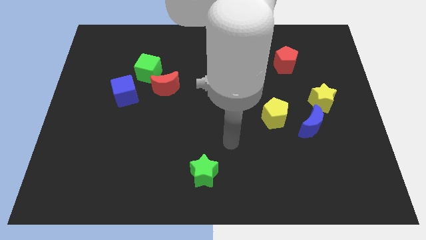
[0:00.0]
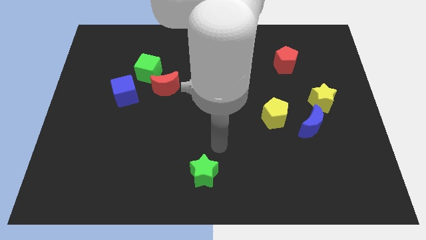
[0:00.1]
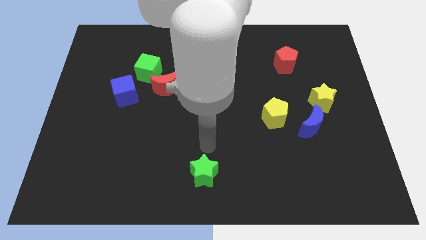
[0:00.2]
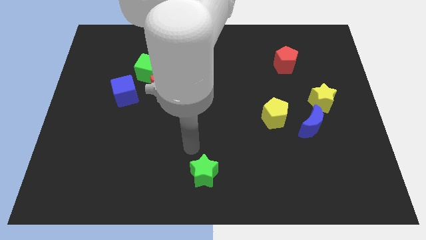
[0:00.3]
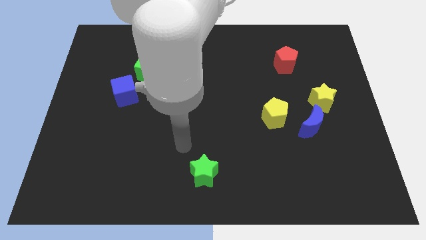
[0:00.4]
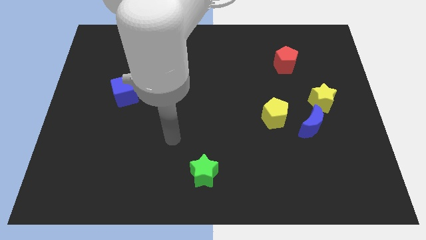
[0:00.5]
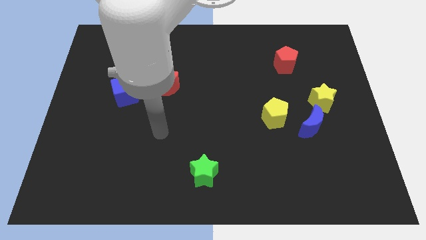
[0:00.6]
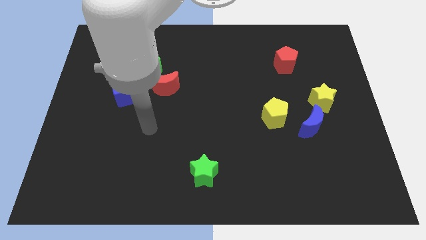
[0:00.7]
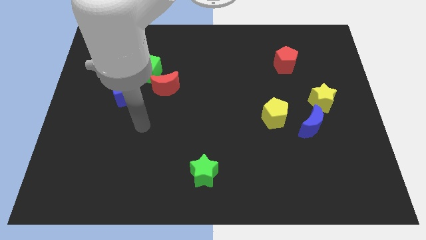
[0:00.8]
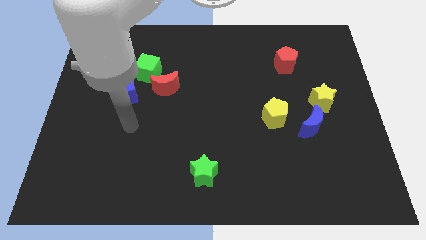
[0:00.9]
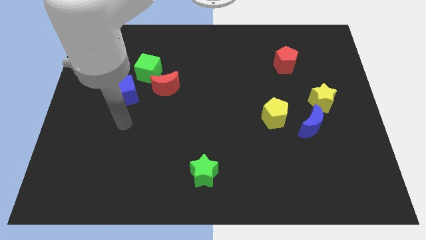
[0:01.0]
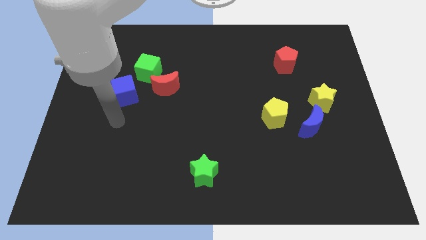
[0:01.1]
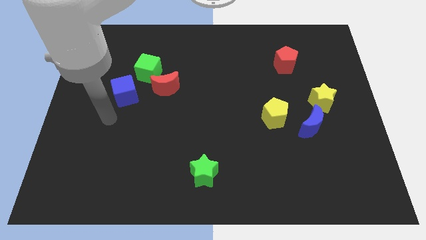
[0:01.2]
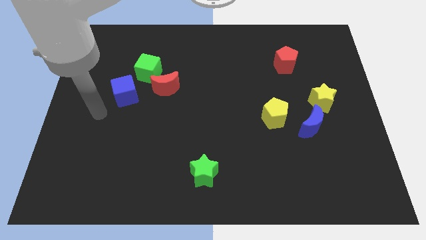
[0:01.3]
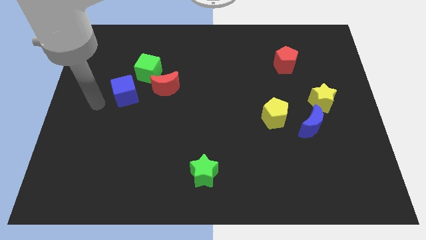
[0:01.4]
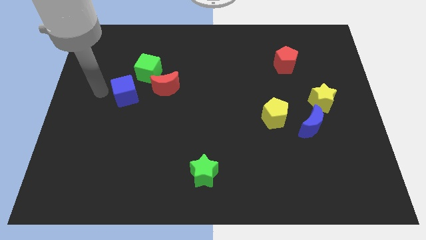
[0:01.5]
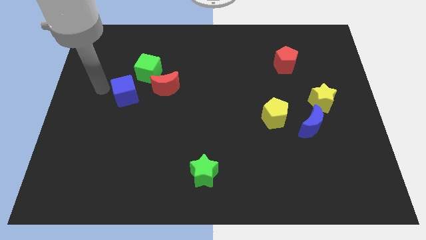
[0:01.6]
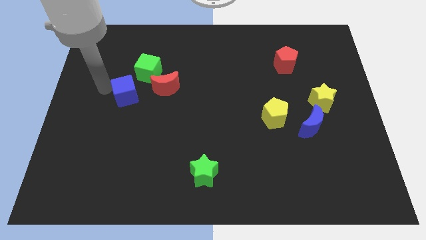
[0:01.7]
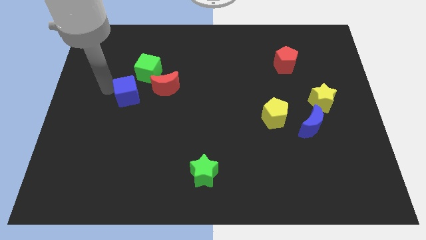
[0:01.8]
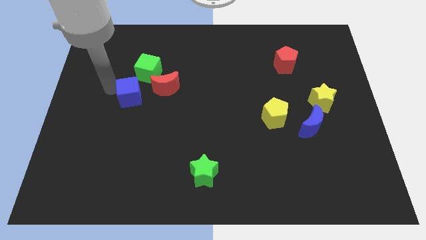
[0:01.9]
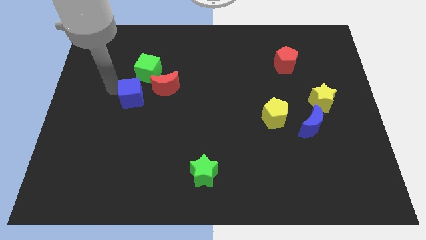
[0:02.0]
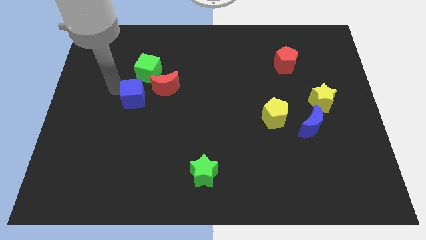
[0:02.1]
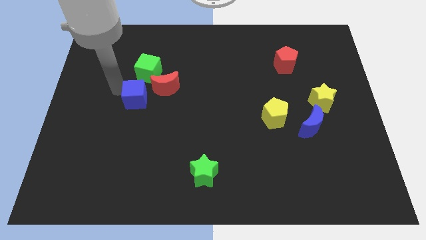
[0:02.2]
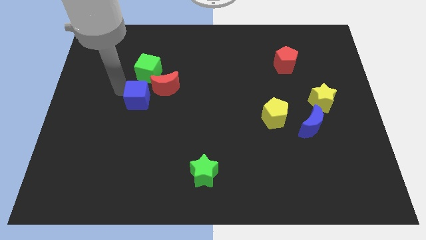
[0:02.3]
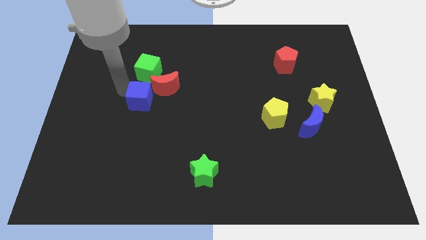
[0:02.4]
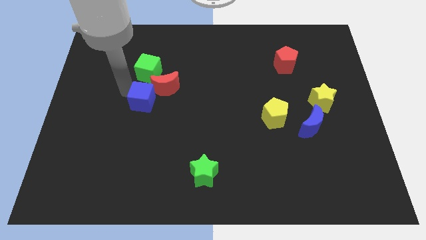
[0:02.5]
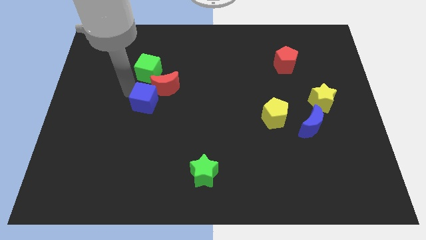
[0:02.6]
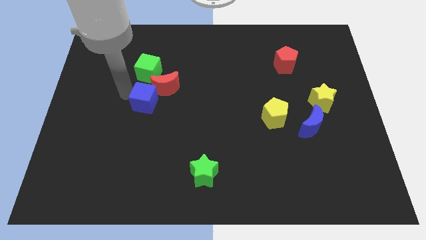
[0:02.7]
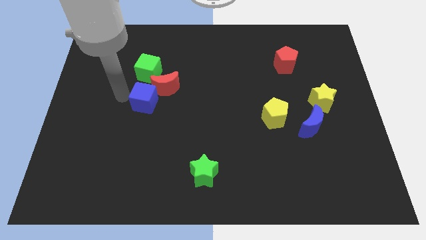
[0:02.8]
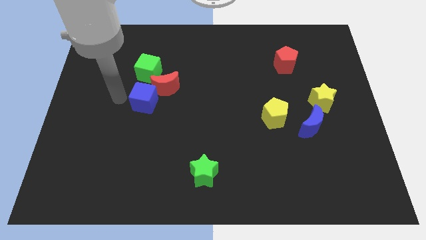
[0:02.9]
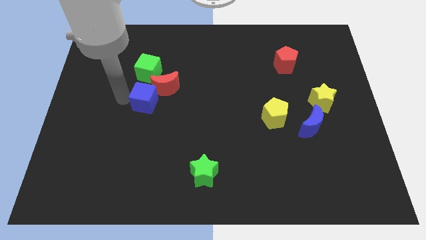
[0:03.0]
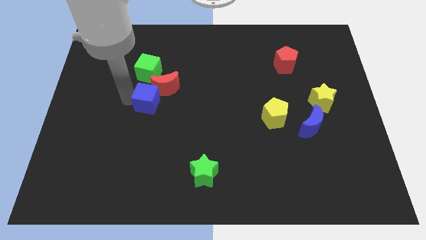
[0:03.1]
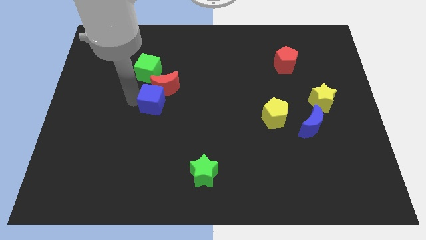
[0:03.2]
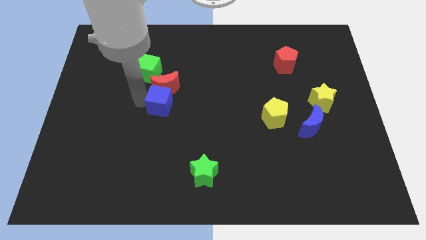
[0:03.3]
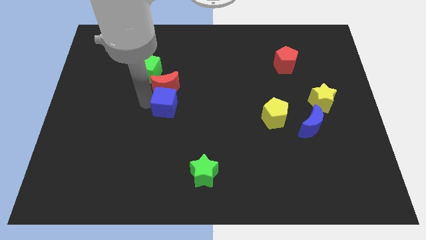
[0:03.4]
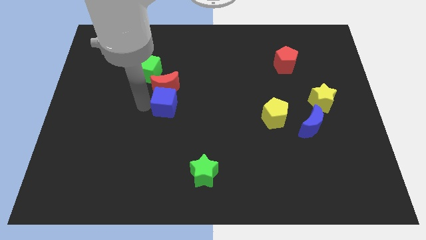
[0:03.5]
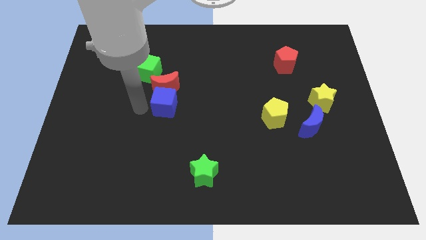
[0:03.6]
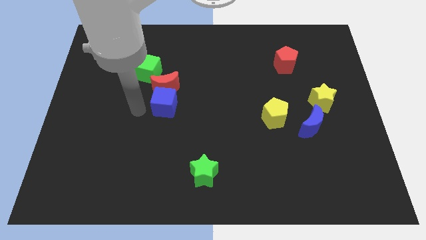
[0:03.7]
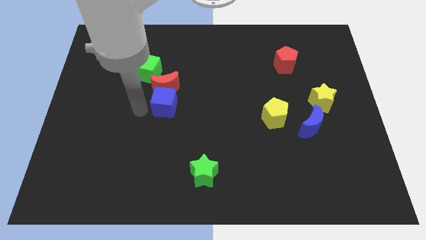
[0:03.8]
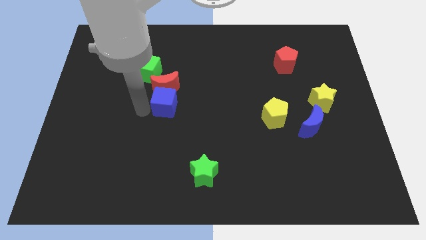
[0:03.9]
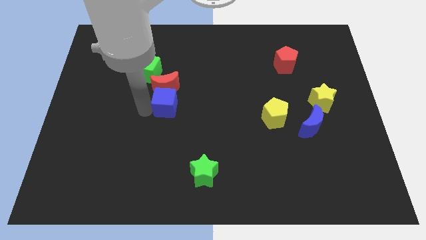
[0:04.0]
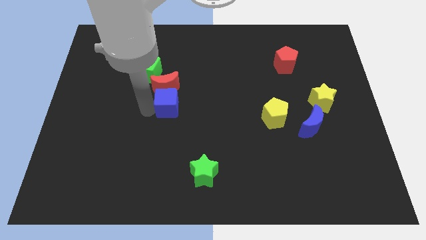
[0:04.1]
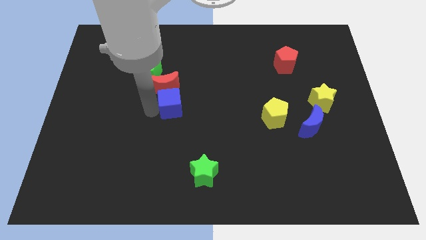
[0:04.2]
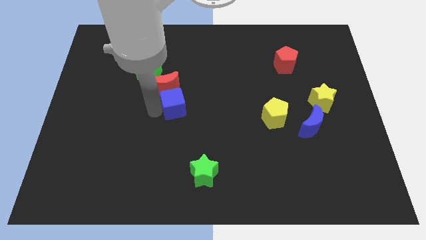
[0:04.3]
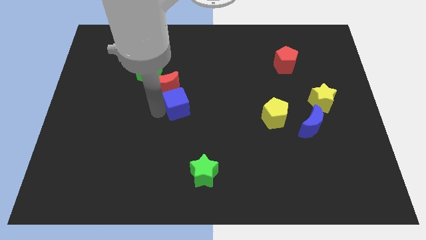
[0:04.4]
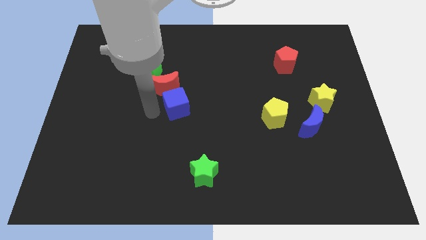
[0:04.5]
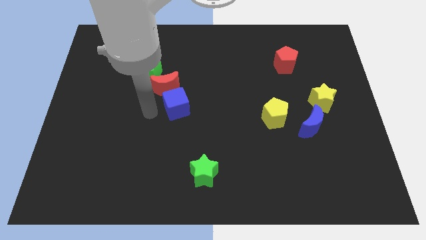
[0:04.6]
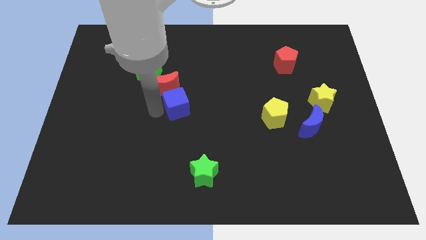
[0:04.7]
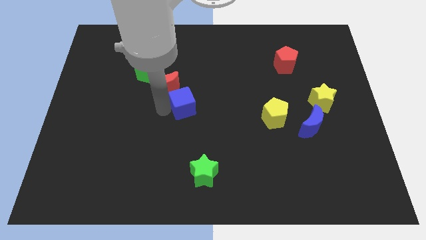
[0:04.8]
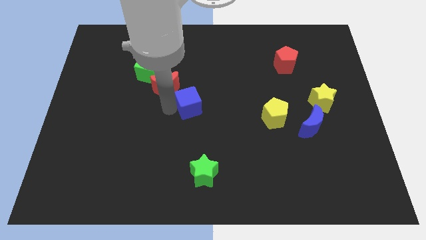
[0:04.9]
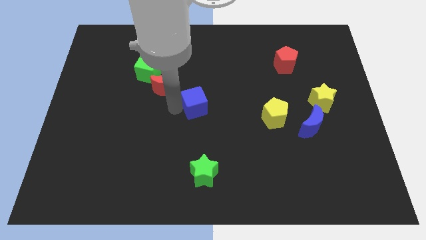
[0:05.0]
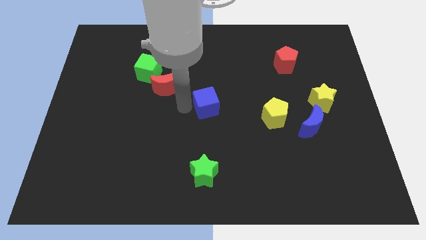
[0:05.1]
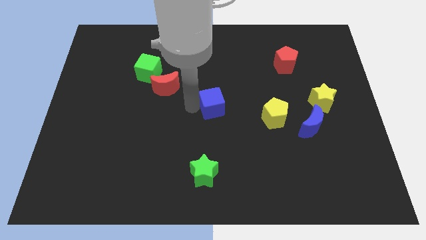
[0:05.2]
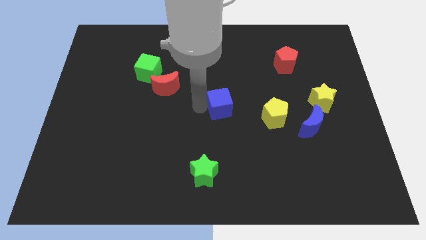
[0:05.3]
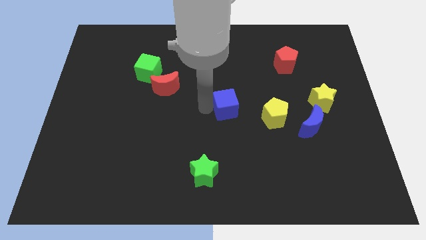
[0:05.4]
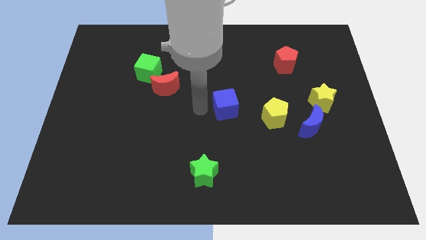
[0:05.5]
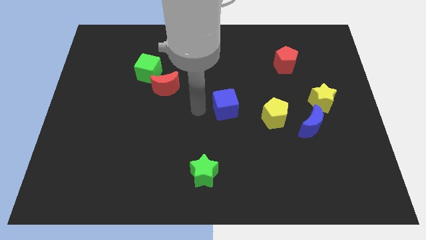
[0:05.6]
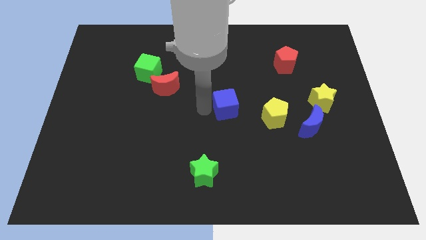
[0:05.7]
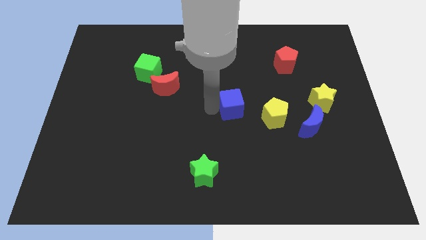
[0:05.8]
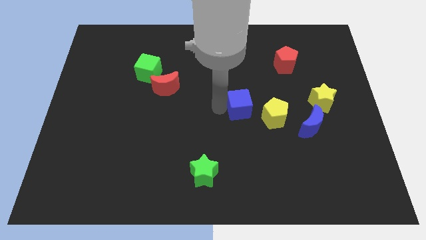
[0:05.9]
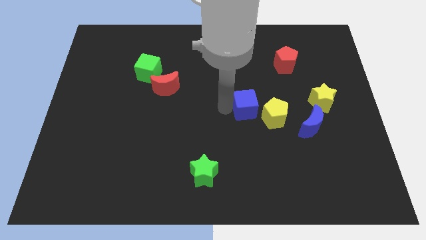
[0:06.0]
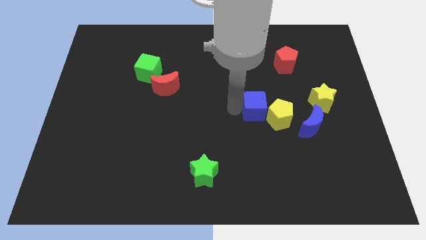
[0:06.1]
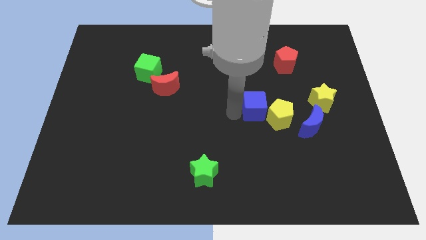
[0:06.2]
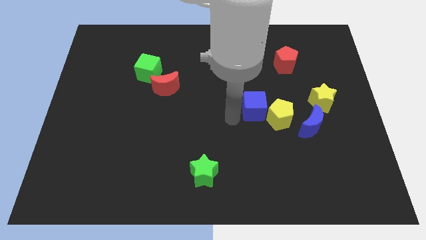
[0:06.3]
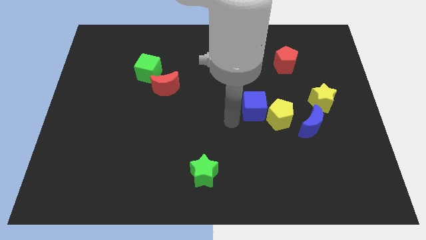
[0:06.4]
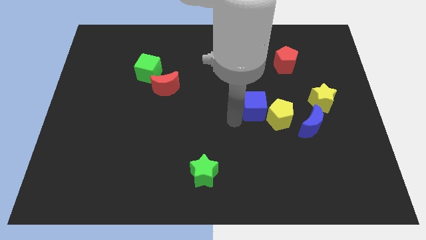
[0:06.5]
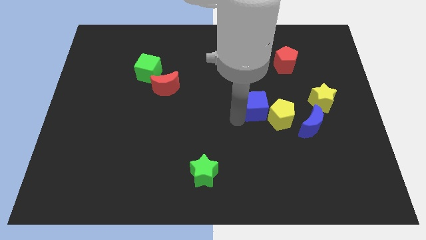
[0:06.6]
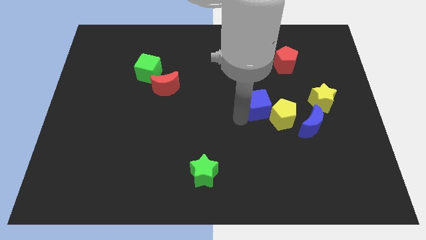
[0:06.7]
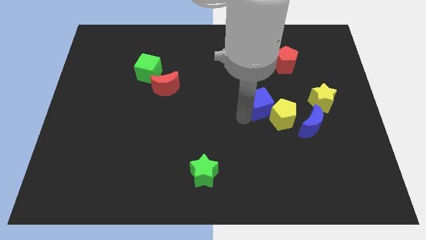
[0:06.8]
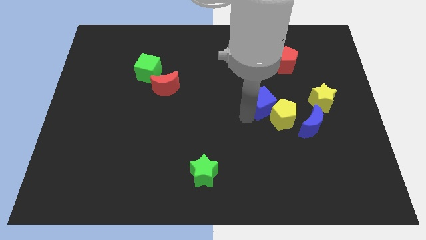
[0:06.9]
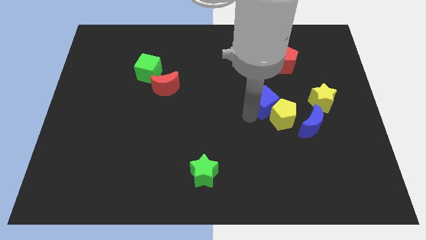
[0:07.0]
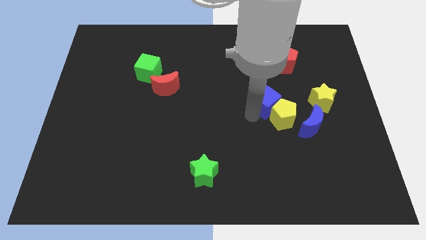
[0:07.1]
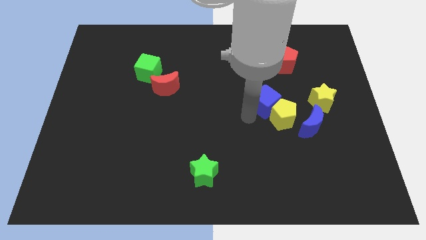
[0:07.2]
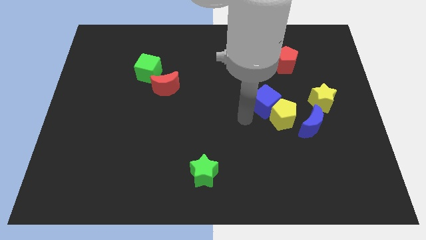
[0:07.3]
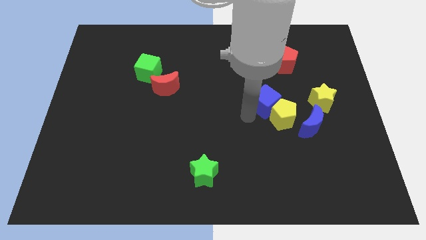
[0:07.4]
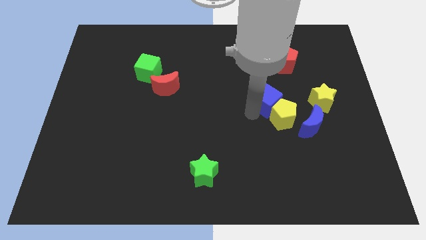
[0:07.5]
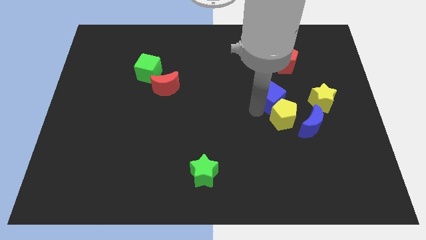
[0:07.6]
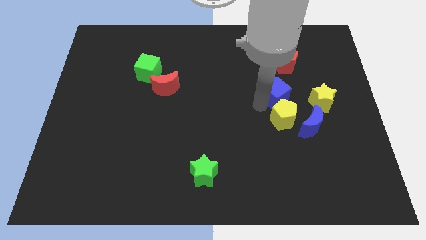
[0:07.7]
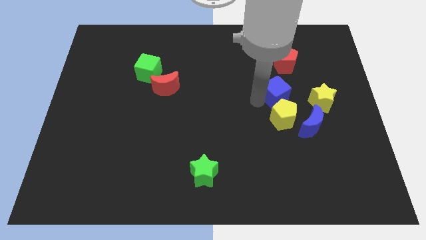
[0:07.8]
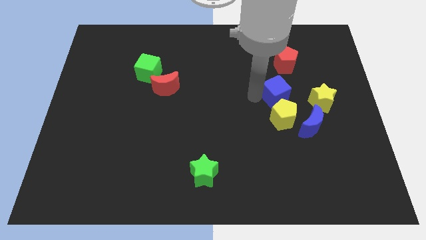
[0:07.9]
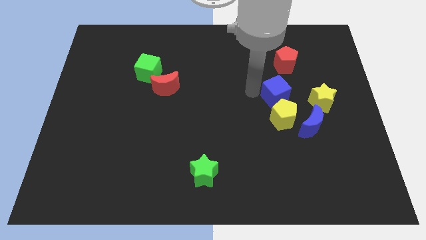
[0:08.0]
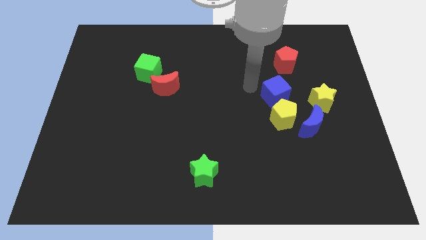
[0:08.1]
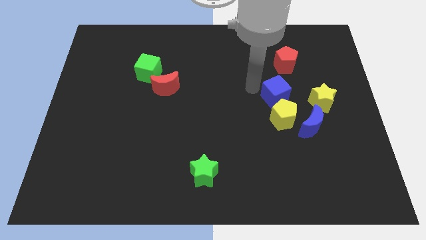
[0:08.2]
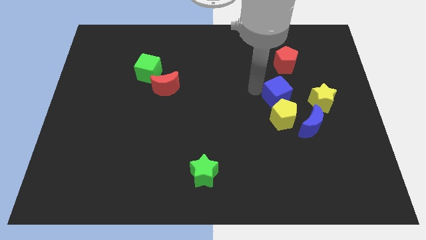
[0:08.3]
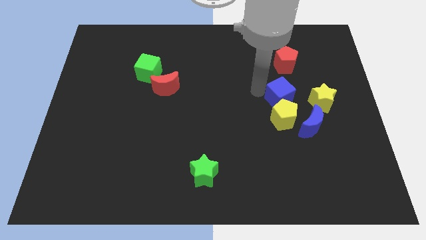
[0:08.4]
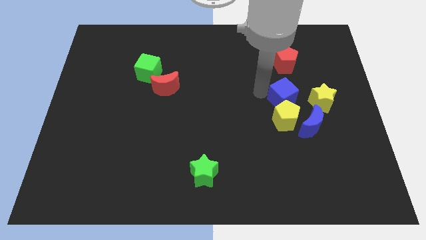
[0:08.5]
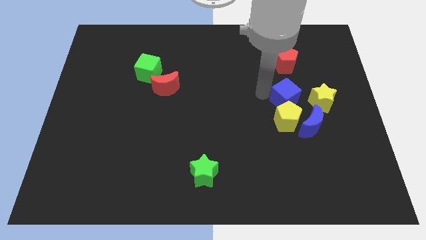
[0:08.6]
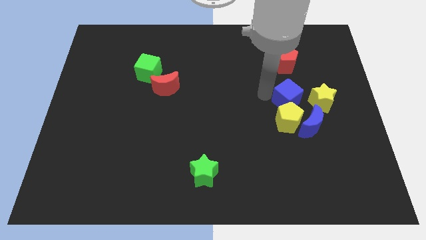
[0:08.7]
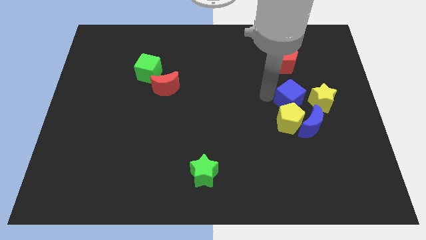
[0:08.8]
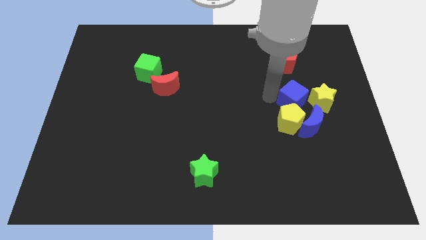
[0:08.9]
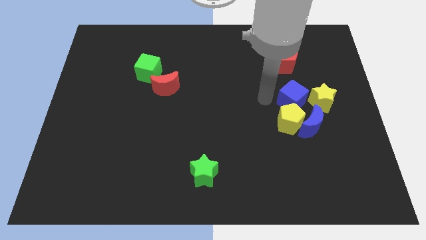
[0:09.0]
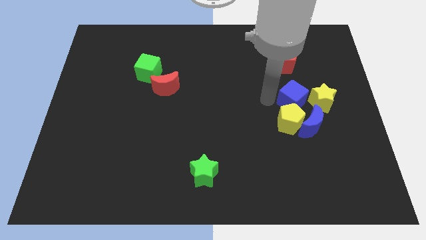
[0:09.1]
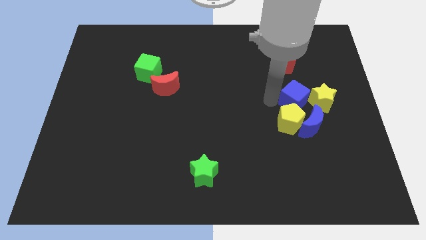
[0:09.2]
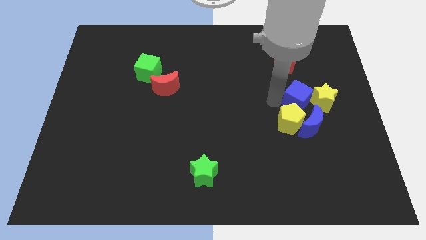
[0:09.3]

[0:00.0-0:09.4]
move the blue cube close to the yellow star
